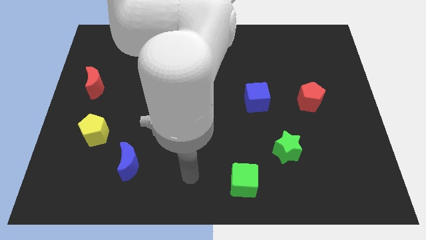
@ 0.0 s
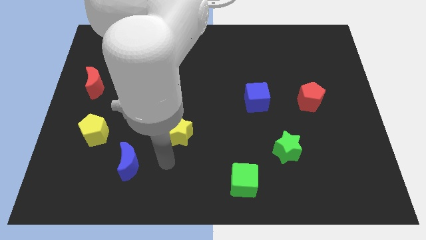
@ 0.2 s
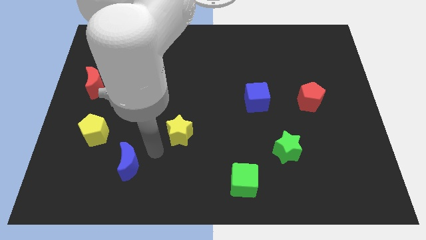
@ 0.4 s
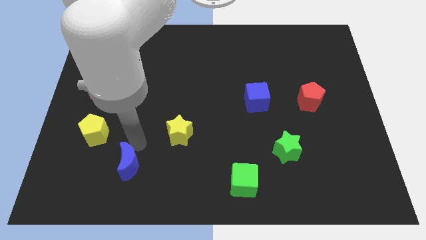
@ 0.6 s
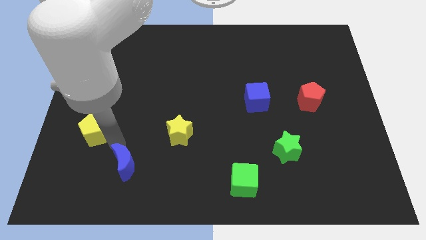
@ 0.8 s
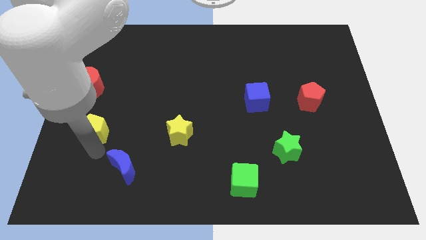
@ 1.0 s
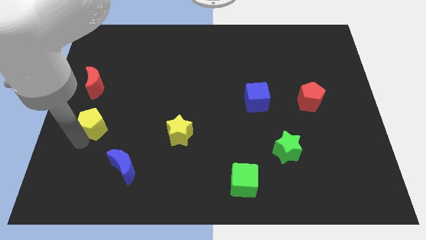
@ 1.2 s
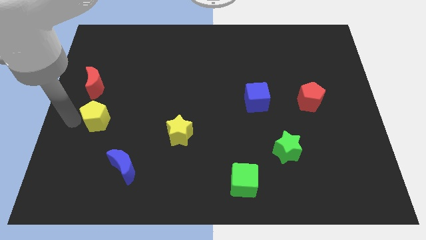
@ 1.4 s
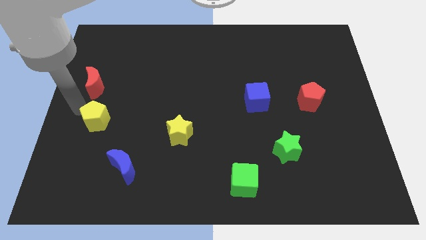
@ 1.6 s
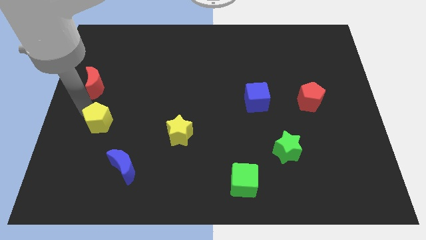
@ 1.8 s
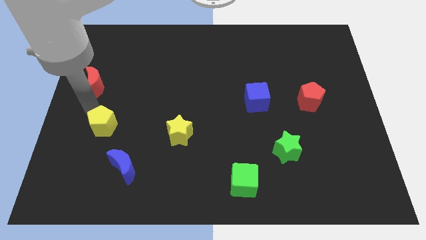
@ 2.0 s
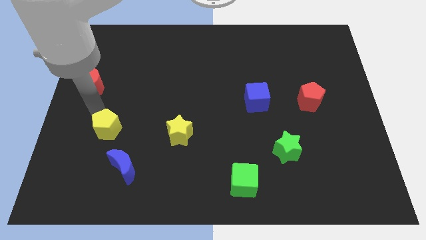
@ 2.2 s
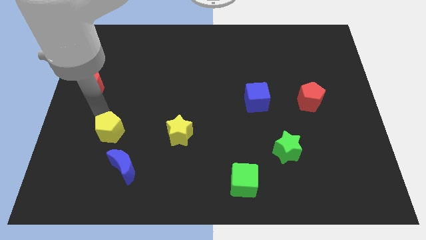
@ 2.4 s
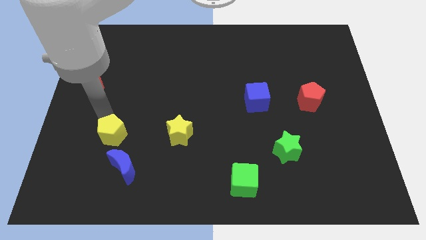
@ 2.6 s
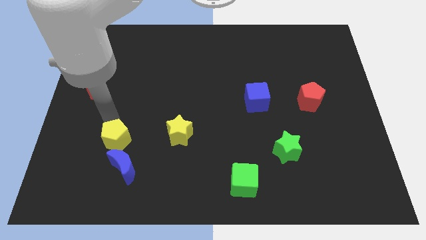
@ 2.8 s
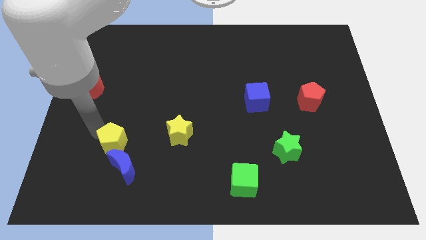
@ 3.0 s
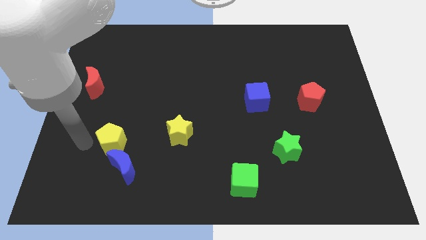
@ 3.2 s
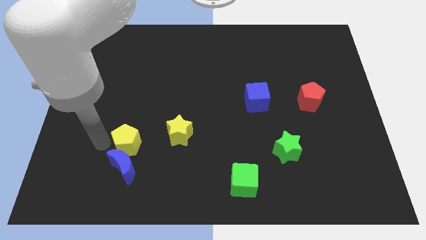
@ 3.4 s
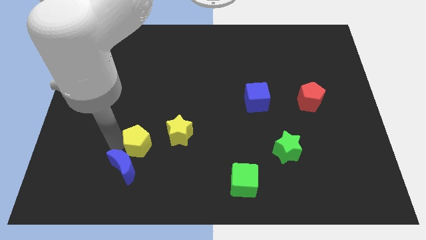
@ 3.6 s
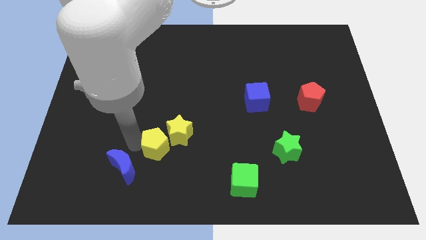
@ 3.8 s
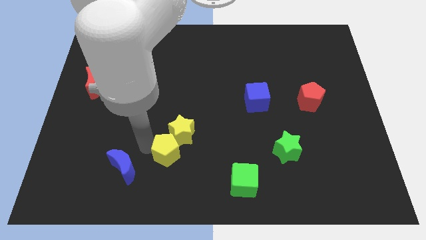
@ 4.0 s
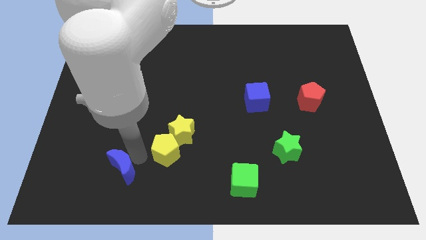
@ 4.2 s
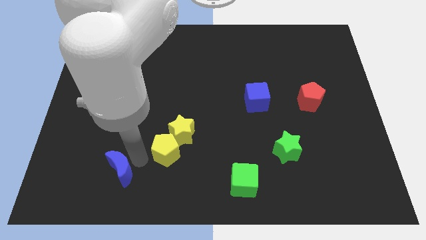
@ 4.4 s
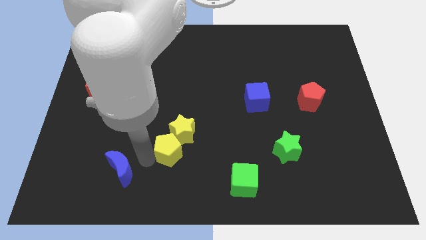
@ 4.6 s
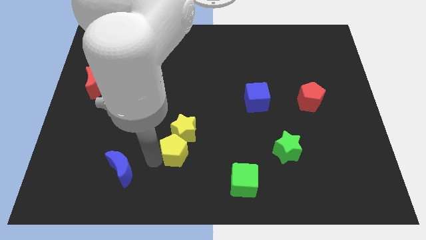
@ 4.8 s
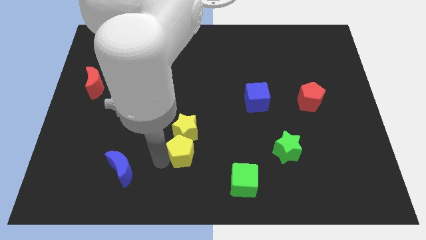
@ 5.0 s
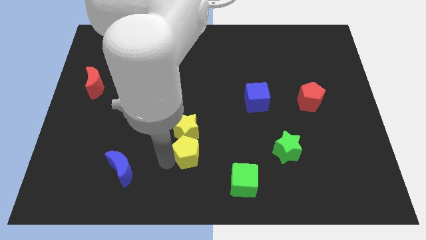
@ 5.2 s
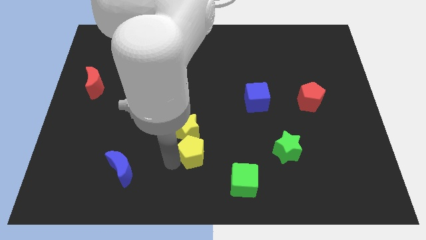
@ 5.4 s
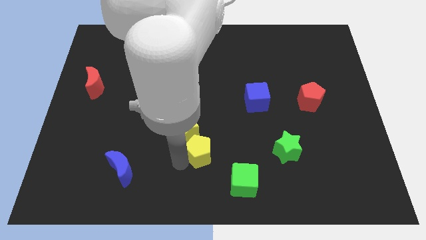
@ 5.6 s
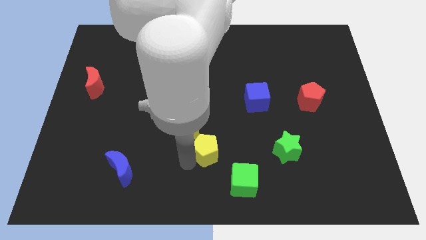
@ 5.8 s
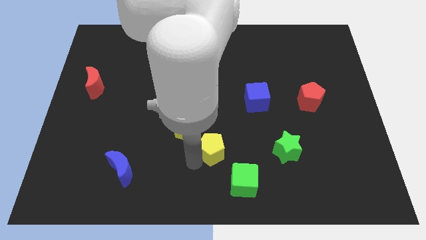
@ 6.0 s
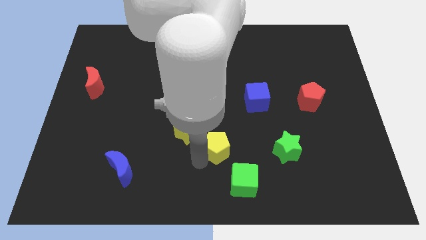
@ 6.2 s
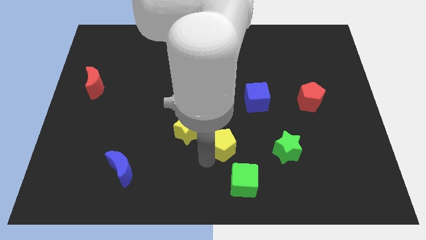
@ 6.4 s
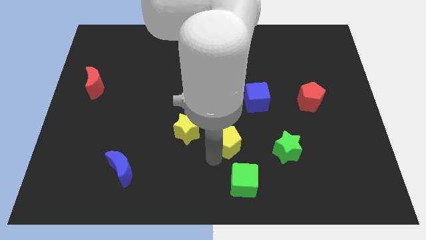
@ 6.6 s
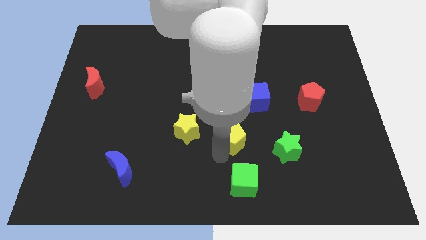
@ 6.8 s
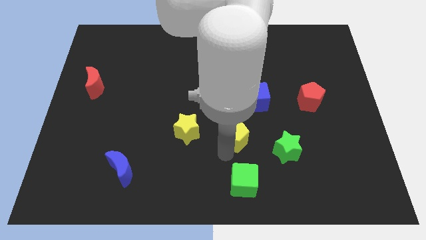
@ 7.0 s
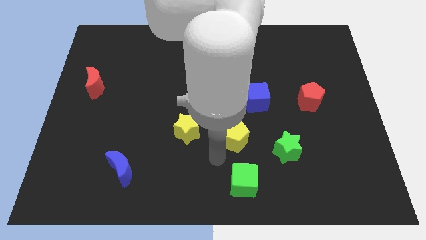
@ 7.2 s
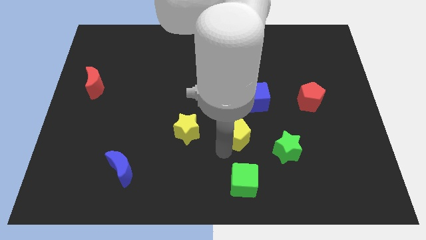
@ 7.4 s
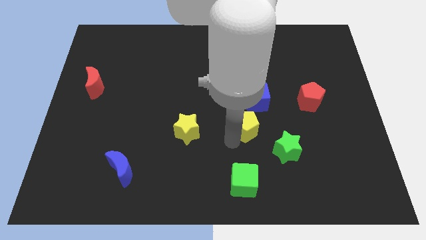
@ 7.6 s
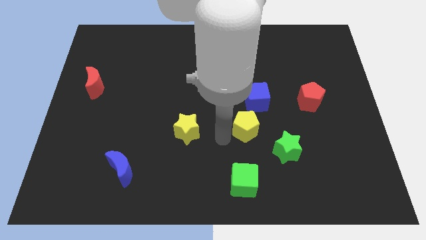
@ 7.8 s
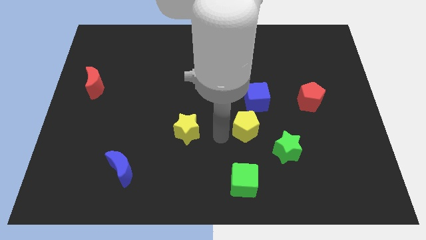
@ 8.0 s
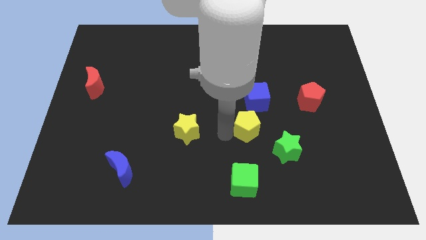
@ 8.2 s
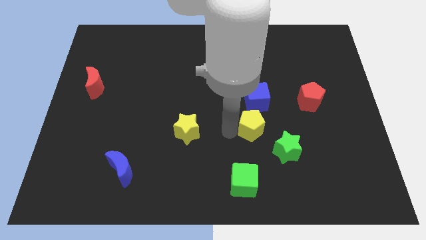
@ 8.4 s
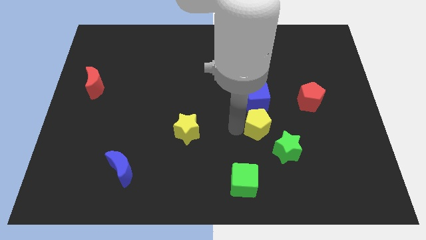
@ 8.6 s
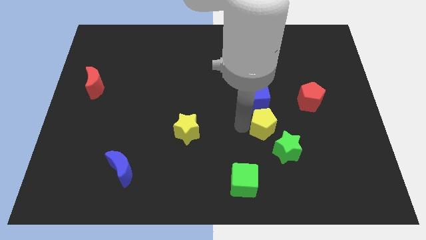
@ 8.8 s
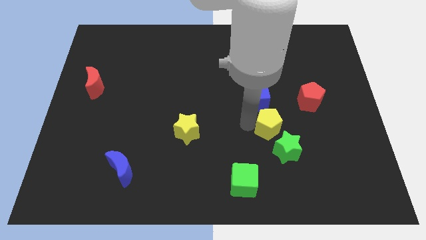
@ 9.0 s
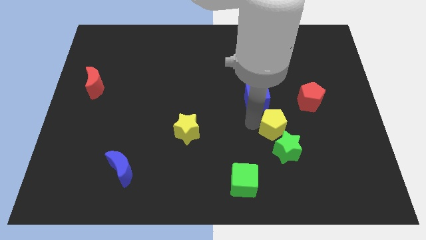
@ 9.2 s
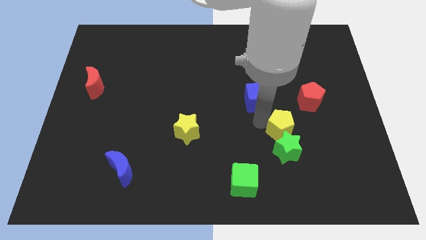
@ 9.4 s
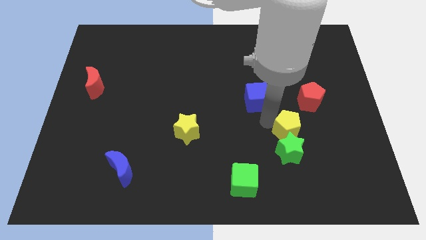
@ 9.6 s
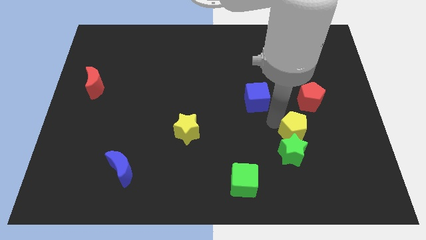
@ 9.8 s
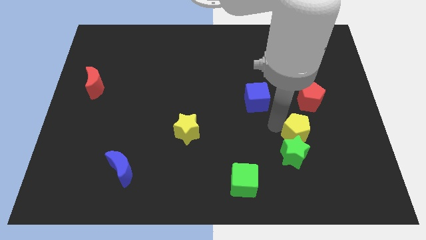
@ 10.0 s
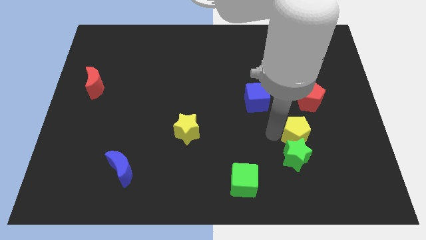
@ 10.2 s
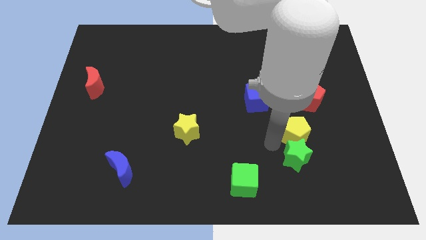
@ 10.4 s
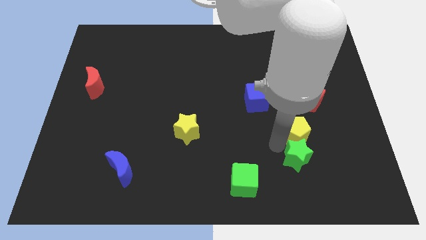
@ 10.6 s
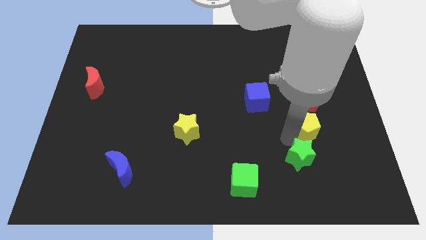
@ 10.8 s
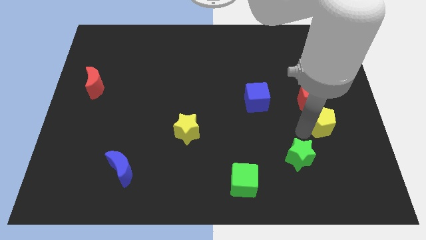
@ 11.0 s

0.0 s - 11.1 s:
put the yellow pentagon to the bottom right of the red pentagon

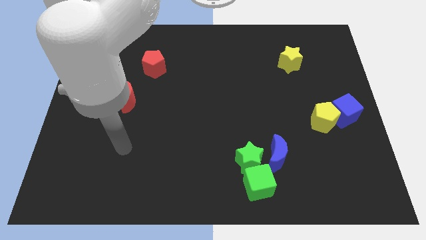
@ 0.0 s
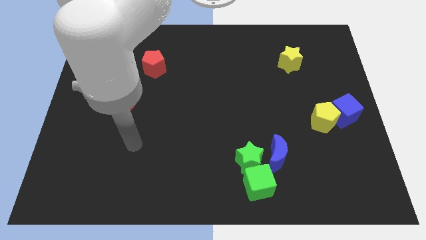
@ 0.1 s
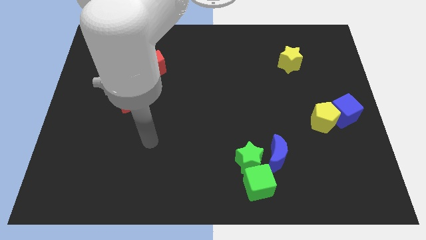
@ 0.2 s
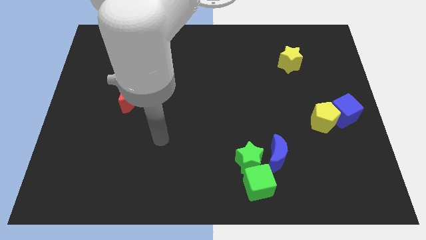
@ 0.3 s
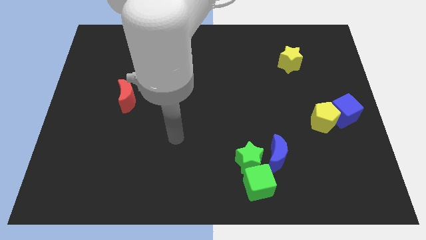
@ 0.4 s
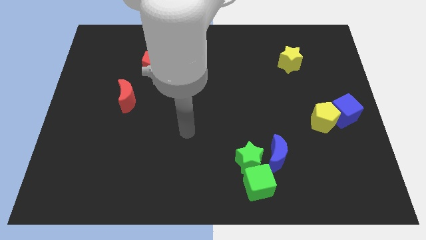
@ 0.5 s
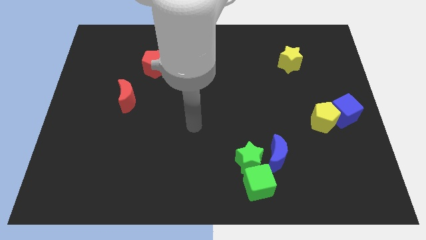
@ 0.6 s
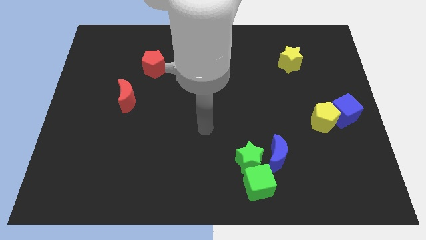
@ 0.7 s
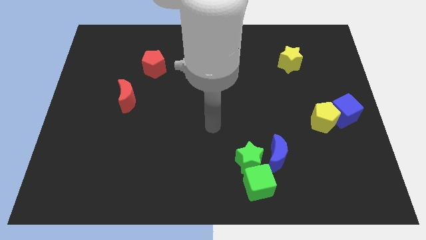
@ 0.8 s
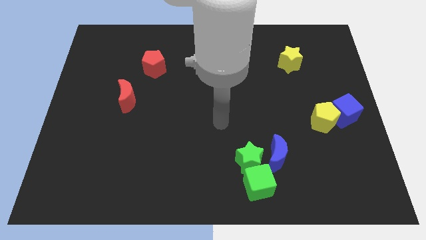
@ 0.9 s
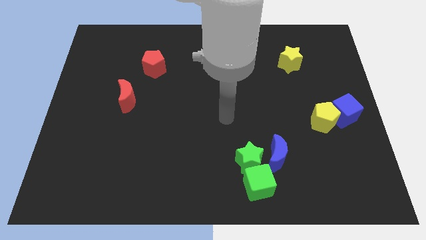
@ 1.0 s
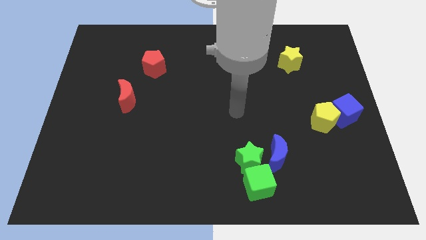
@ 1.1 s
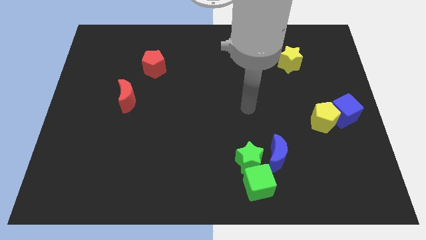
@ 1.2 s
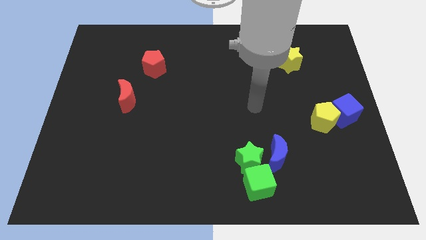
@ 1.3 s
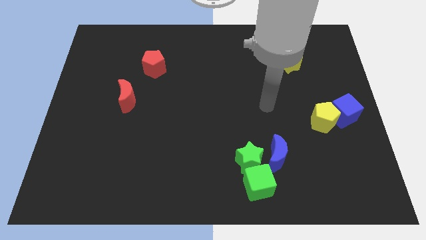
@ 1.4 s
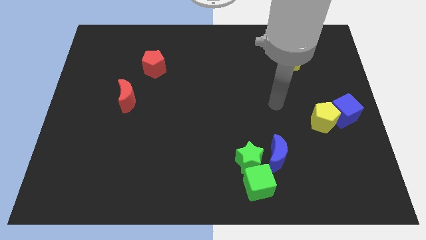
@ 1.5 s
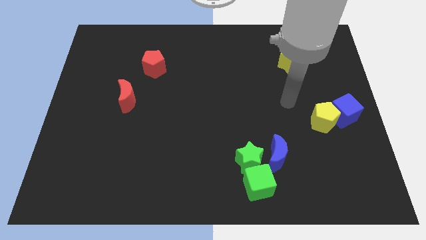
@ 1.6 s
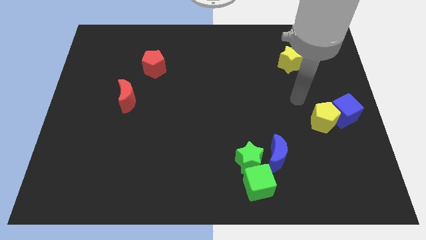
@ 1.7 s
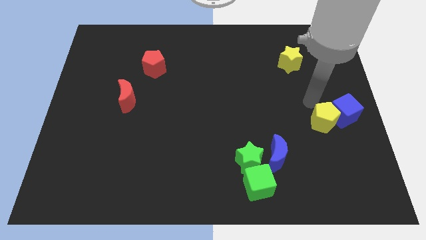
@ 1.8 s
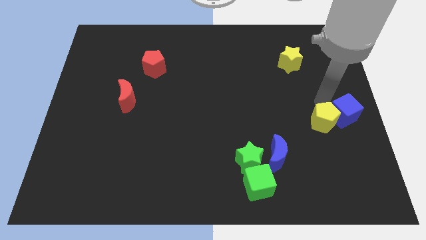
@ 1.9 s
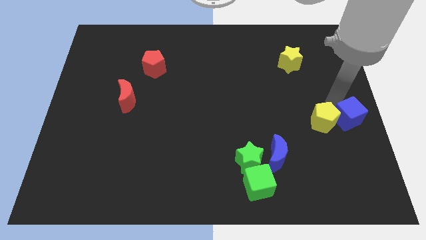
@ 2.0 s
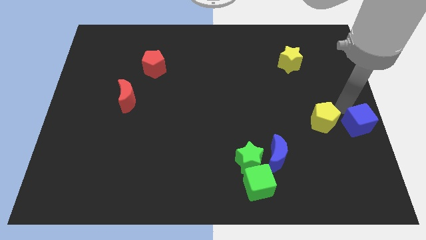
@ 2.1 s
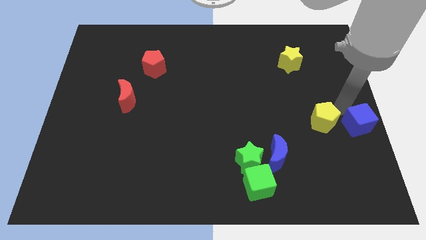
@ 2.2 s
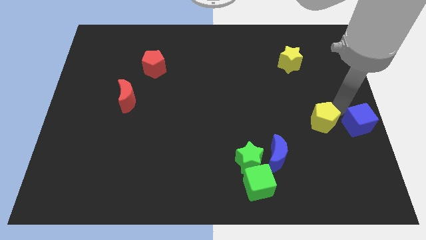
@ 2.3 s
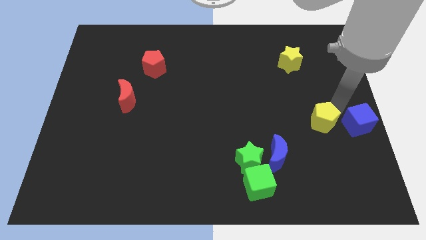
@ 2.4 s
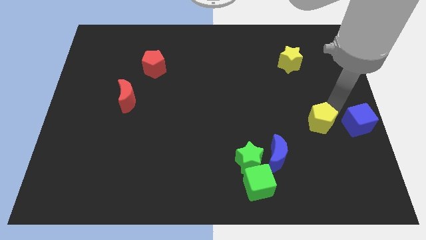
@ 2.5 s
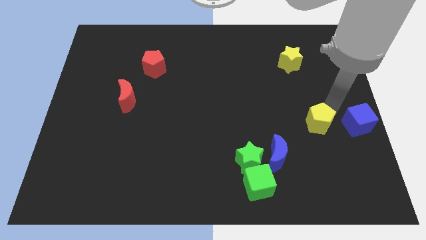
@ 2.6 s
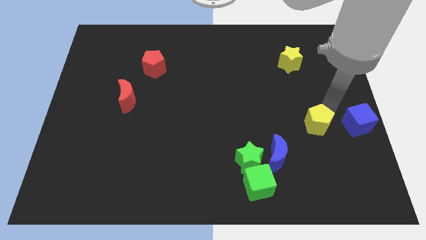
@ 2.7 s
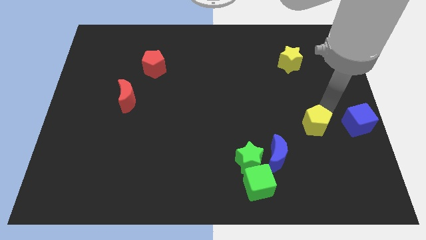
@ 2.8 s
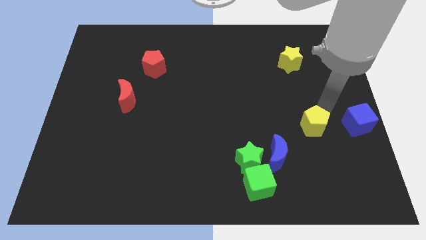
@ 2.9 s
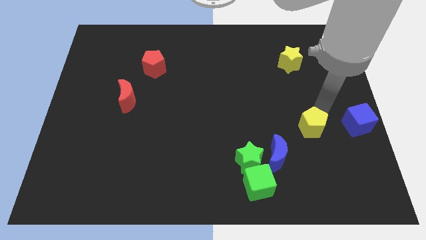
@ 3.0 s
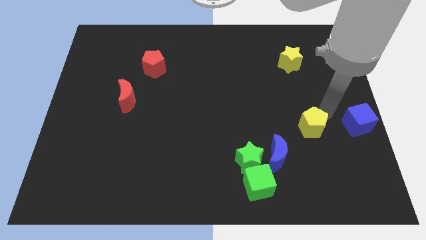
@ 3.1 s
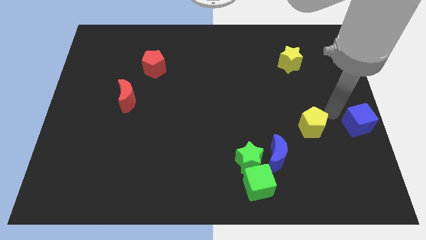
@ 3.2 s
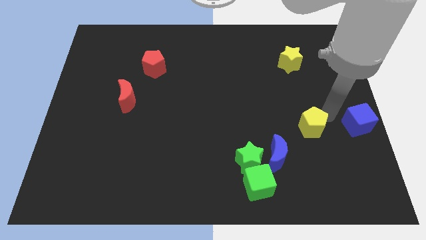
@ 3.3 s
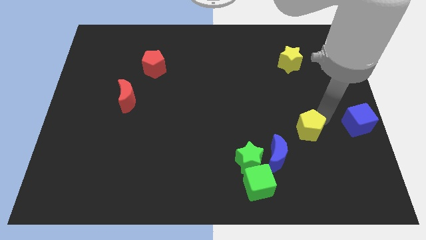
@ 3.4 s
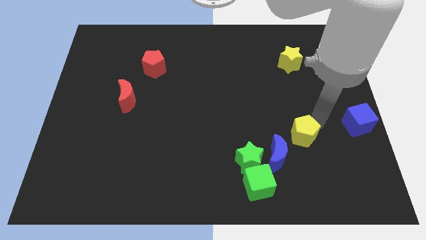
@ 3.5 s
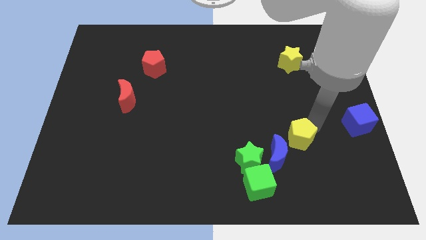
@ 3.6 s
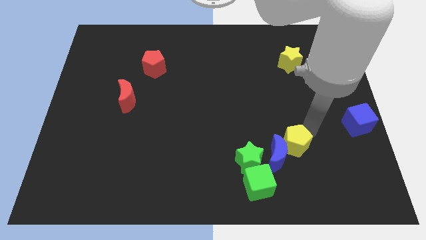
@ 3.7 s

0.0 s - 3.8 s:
put the yellow pentagon to the top right of the green star
